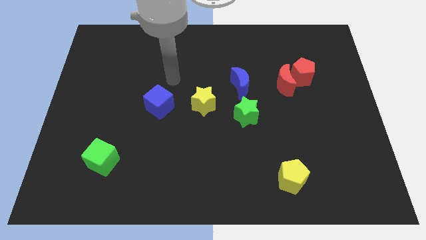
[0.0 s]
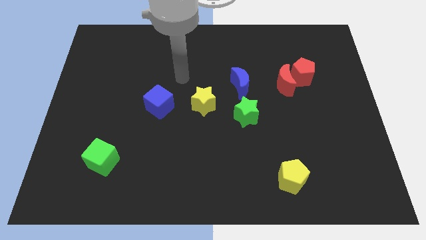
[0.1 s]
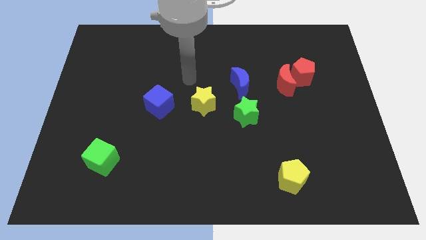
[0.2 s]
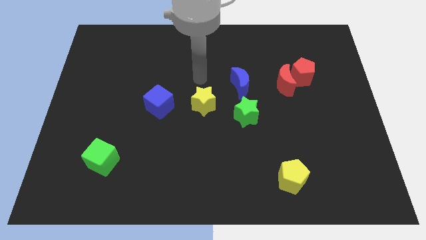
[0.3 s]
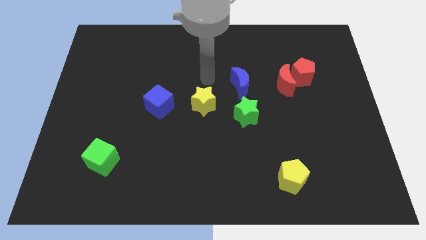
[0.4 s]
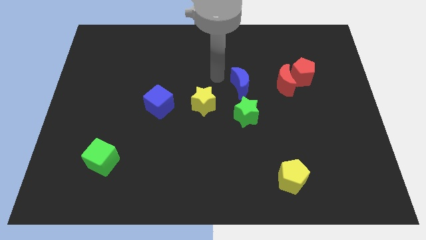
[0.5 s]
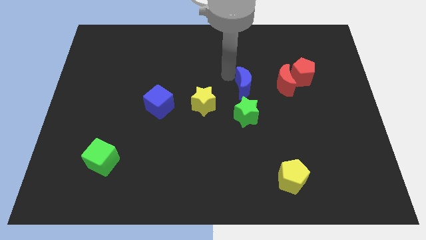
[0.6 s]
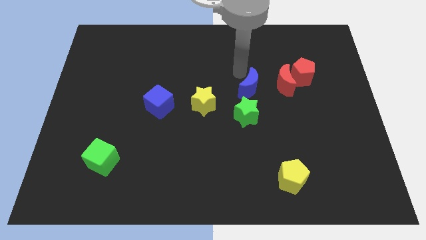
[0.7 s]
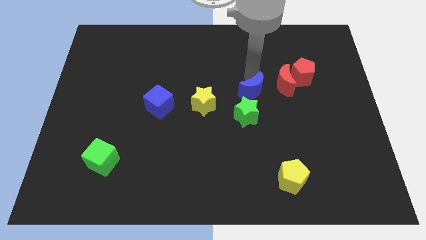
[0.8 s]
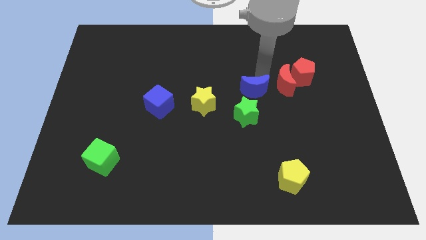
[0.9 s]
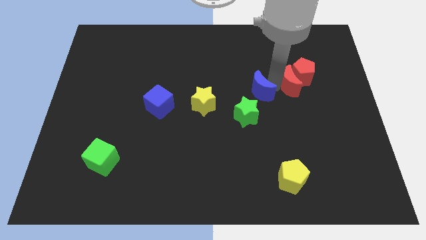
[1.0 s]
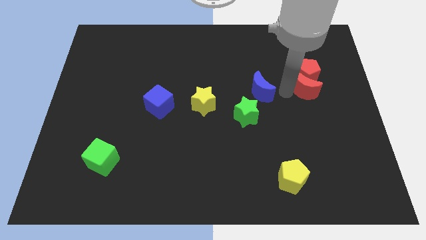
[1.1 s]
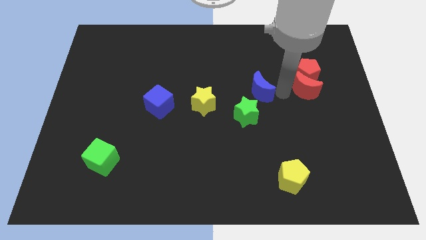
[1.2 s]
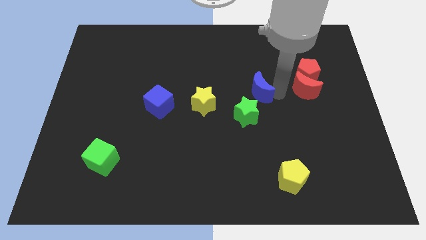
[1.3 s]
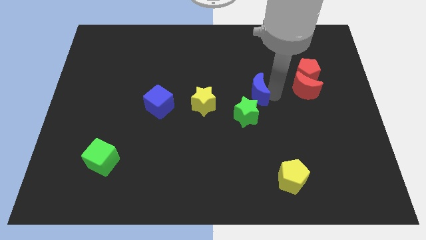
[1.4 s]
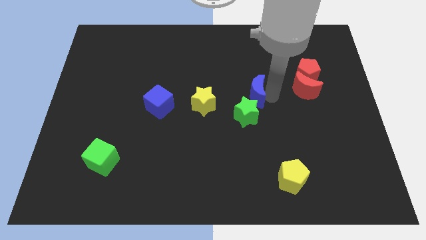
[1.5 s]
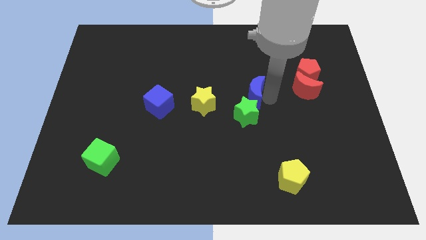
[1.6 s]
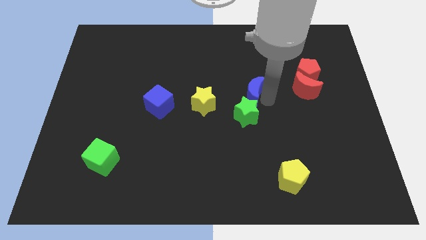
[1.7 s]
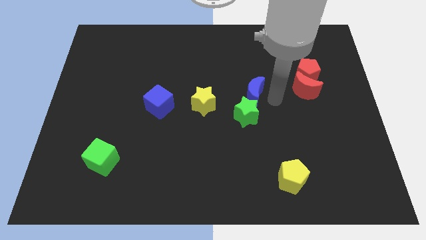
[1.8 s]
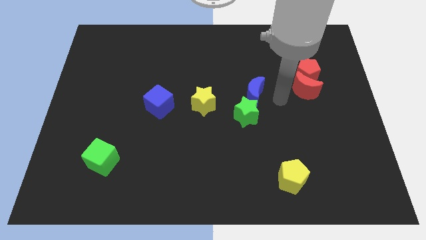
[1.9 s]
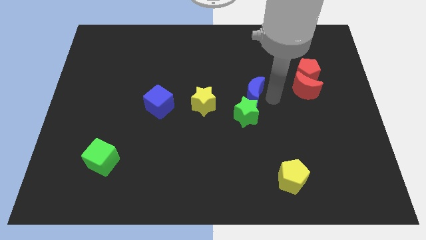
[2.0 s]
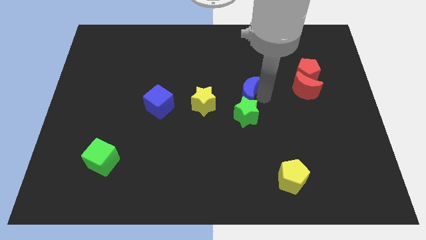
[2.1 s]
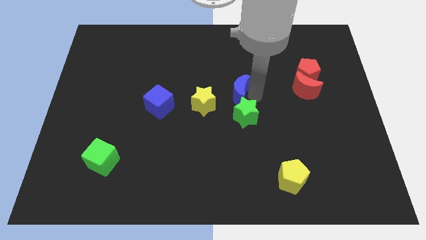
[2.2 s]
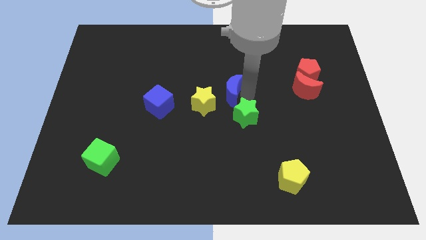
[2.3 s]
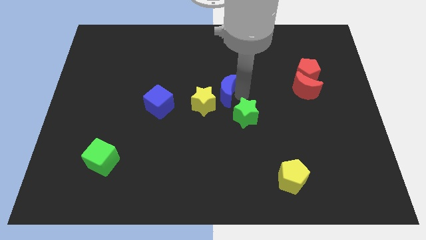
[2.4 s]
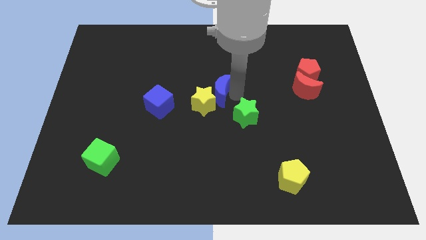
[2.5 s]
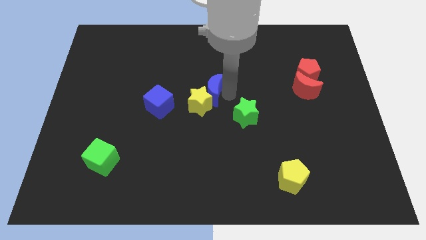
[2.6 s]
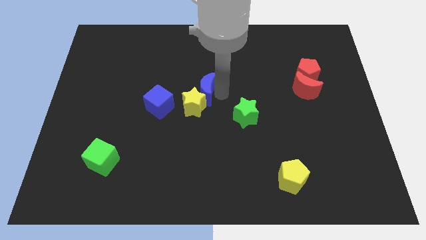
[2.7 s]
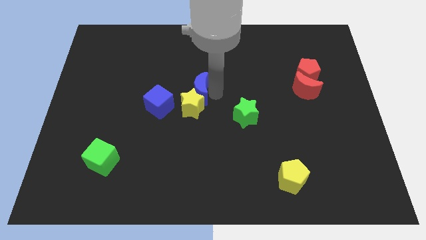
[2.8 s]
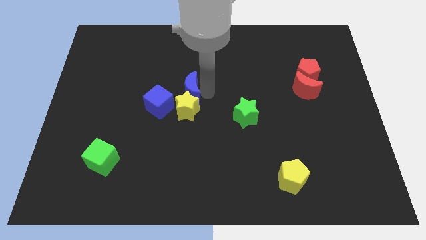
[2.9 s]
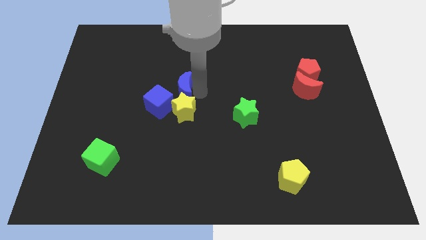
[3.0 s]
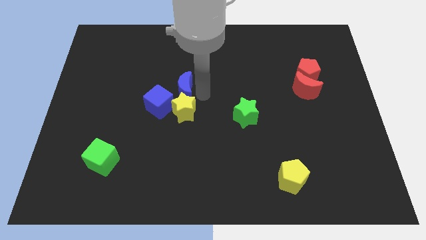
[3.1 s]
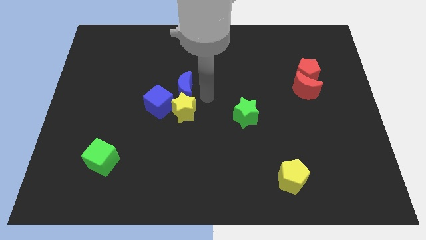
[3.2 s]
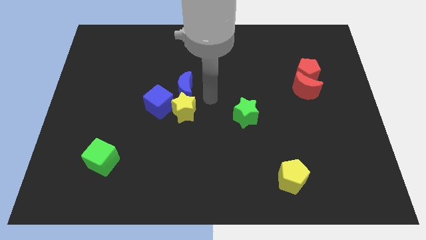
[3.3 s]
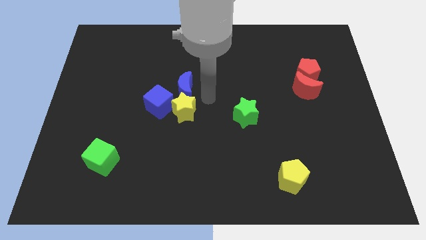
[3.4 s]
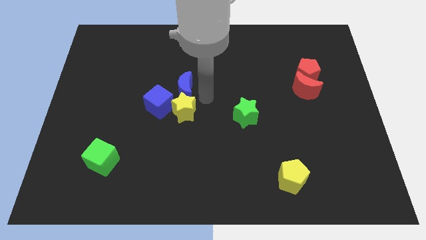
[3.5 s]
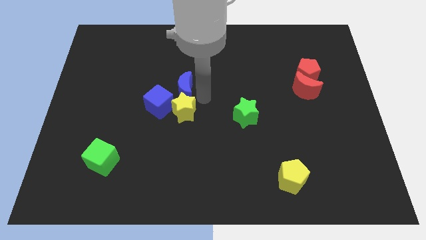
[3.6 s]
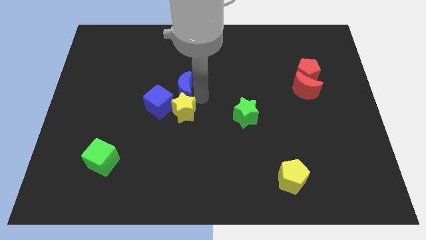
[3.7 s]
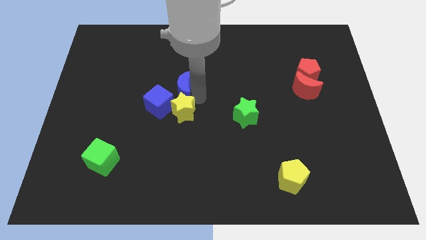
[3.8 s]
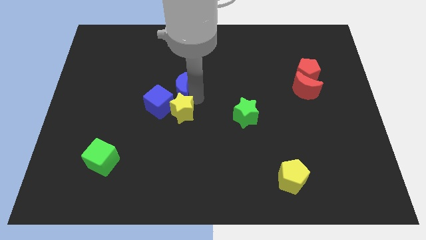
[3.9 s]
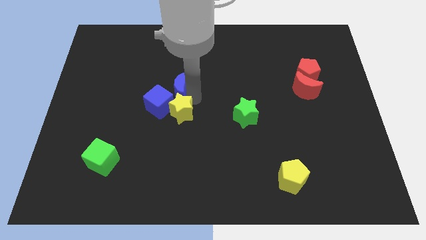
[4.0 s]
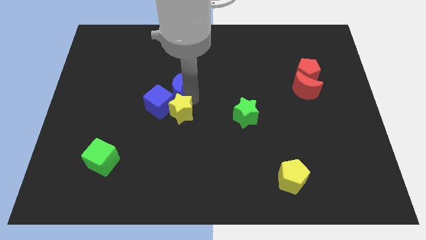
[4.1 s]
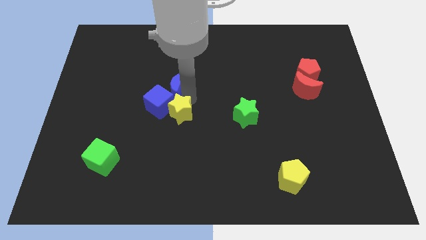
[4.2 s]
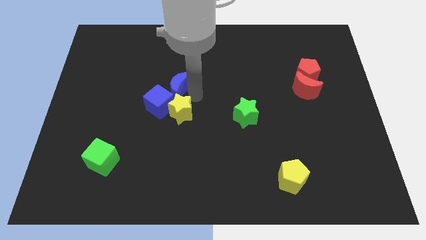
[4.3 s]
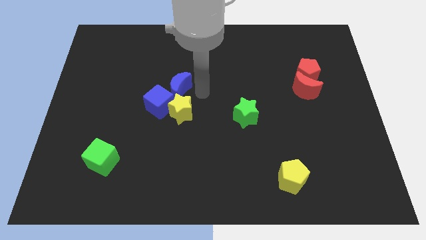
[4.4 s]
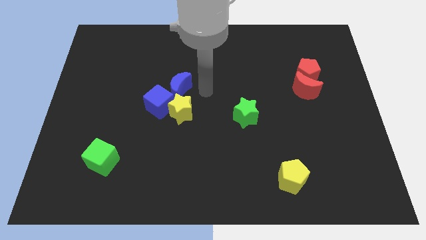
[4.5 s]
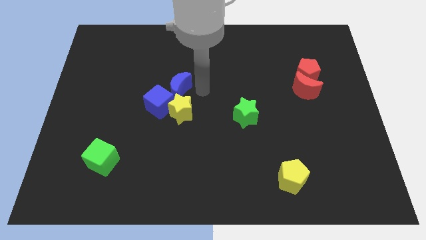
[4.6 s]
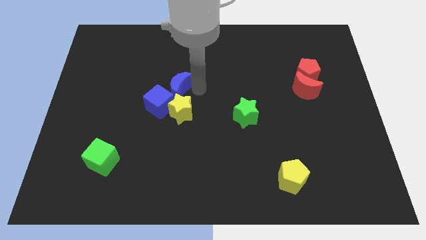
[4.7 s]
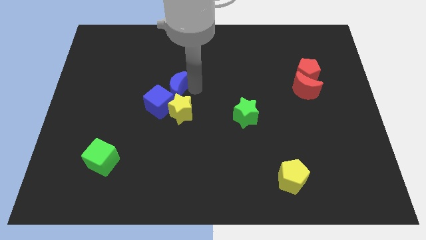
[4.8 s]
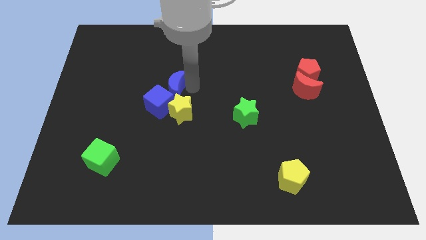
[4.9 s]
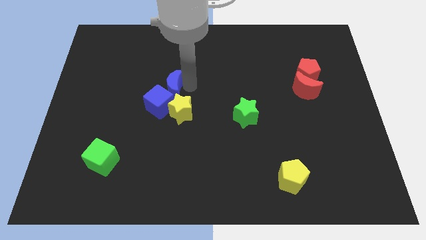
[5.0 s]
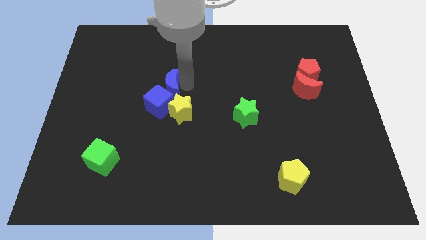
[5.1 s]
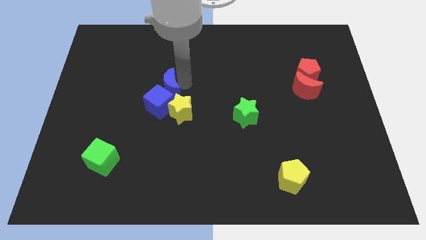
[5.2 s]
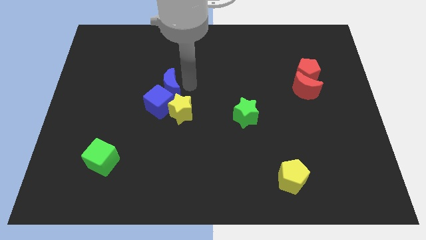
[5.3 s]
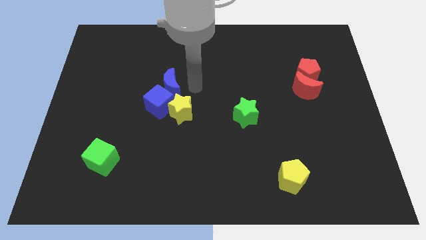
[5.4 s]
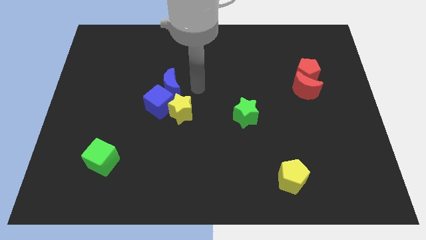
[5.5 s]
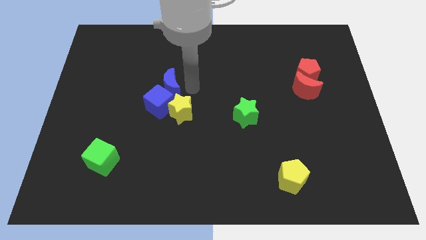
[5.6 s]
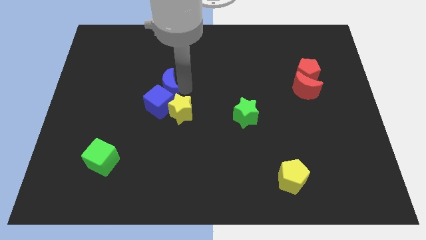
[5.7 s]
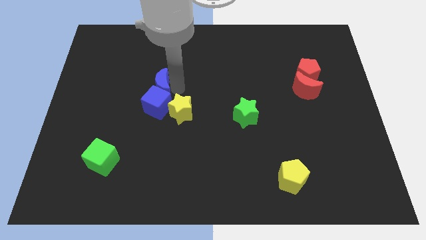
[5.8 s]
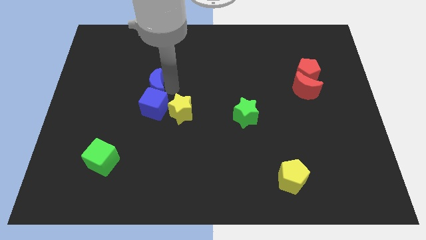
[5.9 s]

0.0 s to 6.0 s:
move the blue moon left

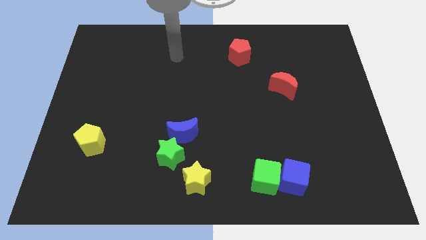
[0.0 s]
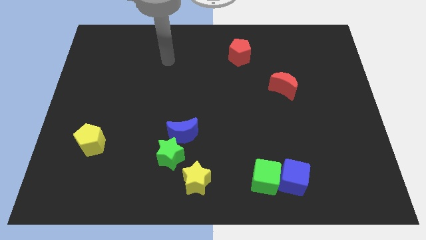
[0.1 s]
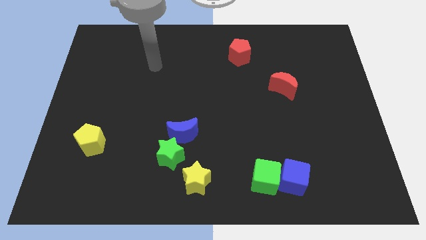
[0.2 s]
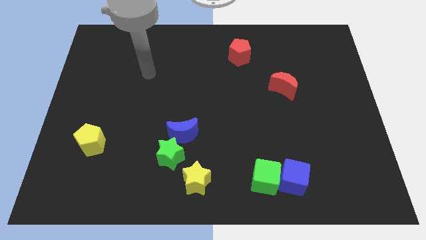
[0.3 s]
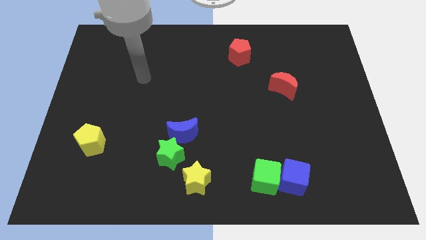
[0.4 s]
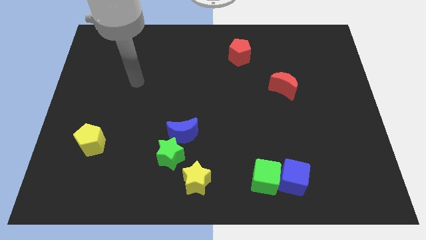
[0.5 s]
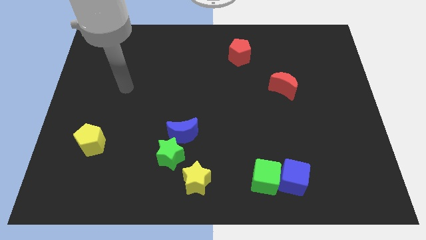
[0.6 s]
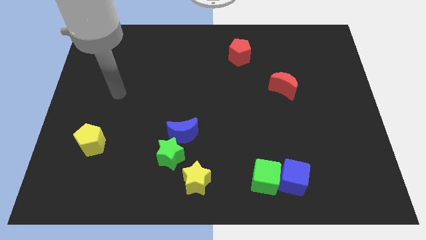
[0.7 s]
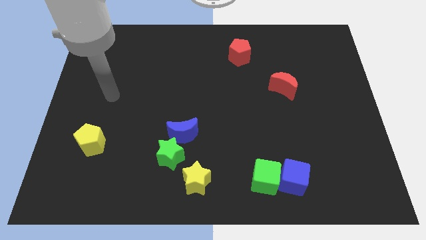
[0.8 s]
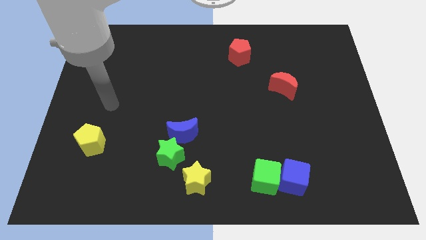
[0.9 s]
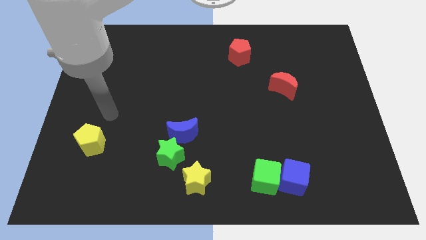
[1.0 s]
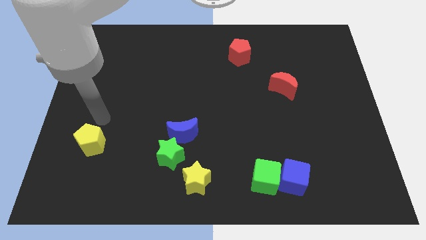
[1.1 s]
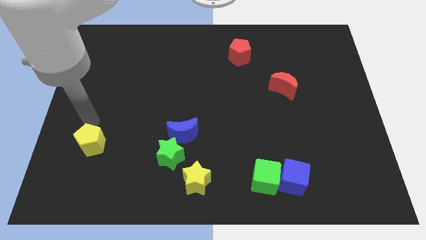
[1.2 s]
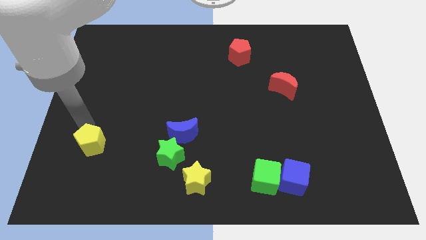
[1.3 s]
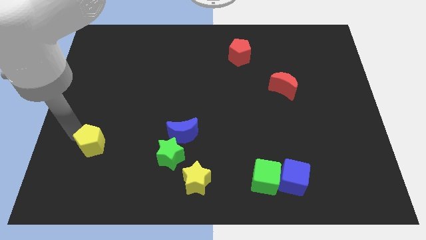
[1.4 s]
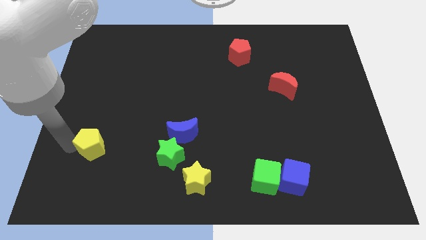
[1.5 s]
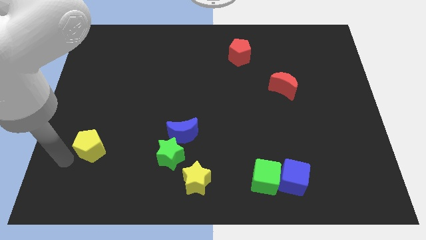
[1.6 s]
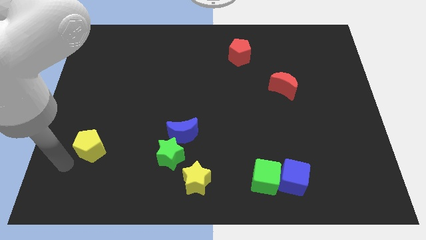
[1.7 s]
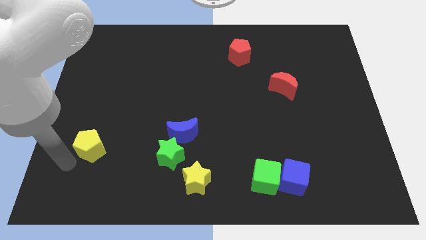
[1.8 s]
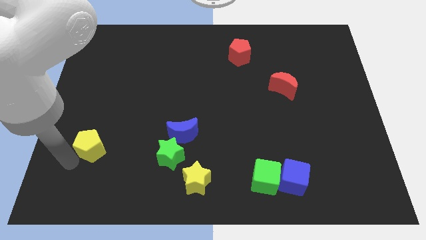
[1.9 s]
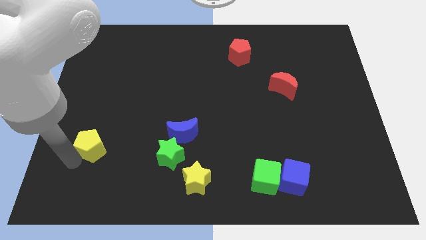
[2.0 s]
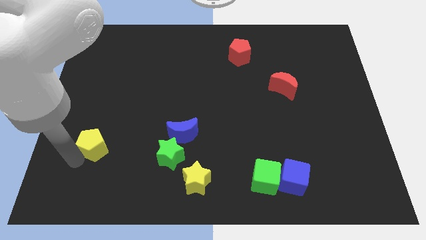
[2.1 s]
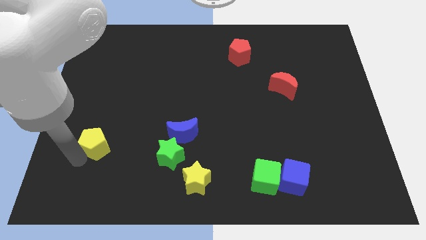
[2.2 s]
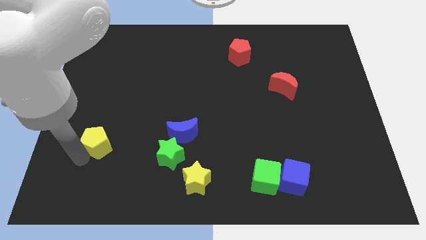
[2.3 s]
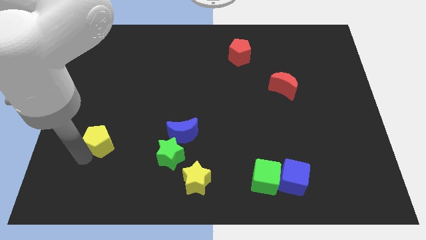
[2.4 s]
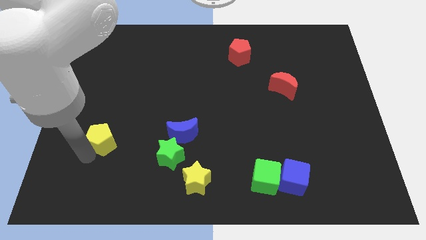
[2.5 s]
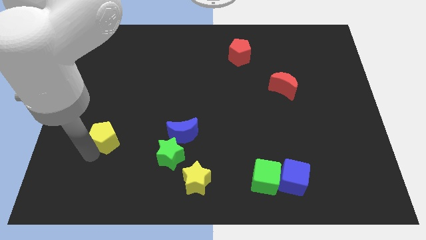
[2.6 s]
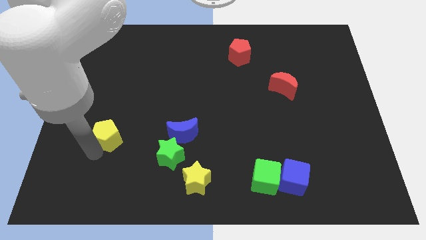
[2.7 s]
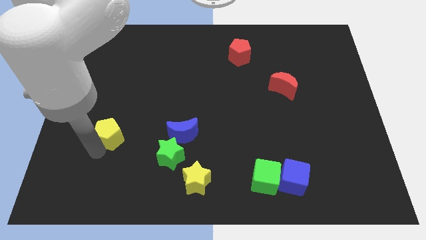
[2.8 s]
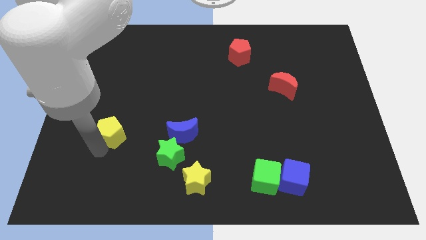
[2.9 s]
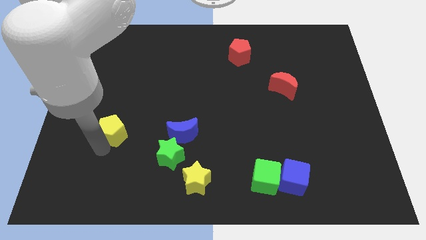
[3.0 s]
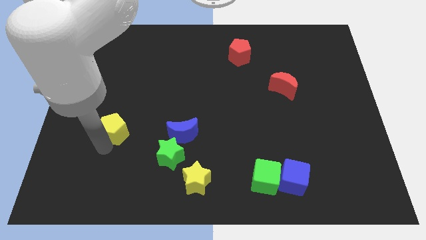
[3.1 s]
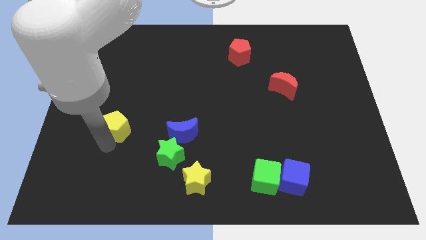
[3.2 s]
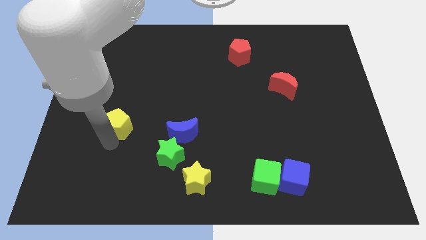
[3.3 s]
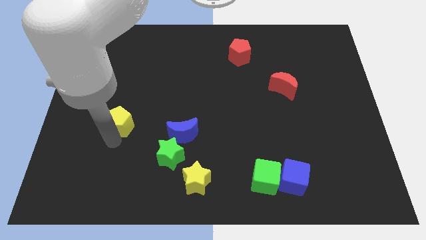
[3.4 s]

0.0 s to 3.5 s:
slide the yellow pentagon a bit upwards and to the right diagonally
